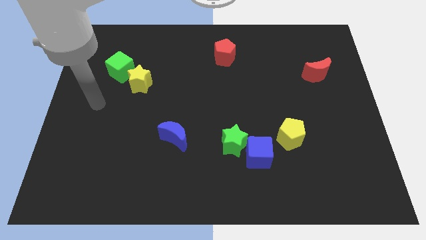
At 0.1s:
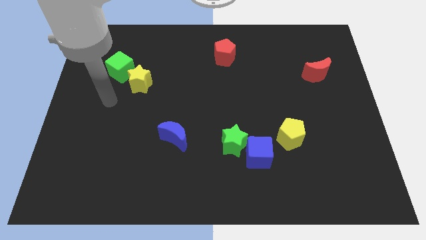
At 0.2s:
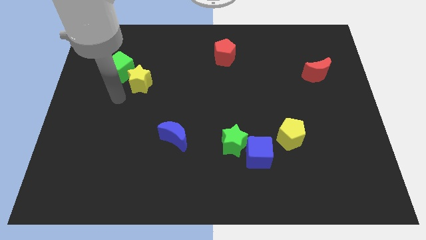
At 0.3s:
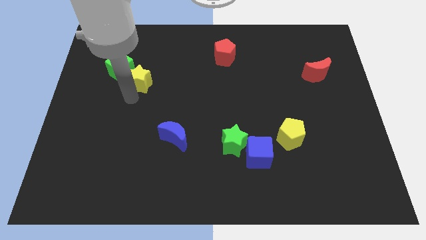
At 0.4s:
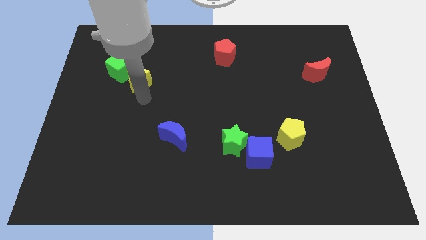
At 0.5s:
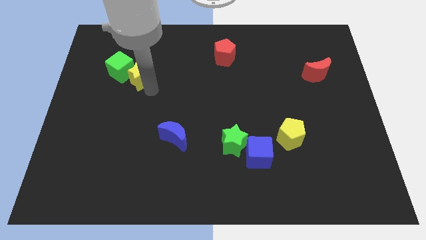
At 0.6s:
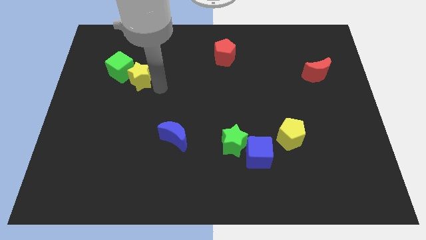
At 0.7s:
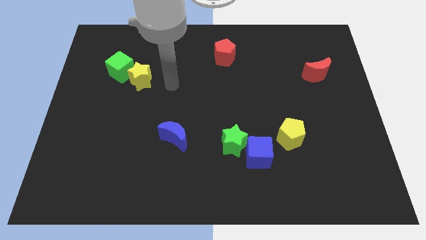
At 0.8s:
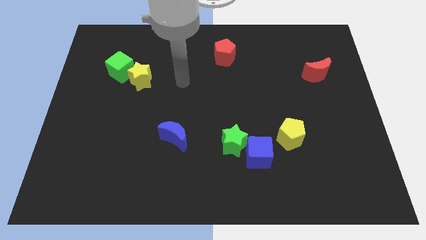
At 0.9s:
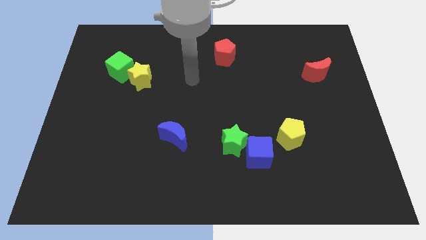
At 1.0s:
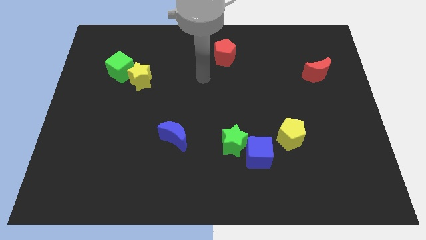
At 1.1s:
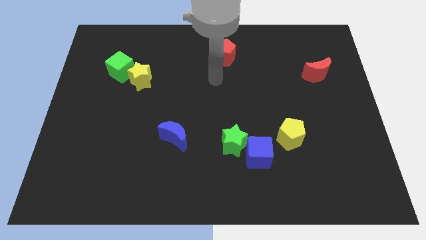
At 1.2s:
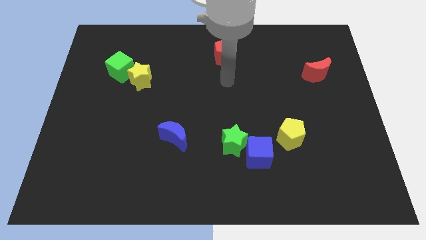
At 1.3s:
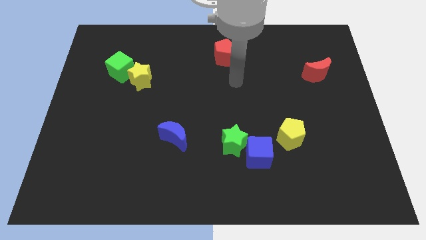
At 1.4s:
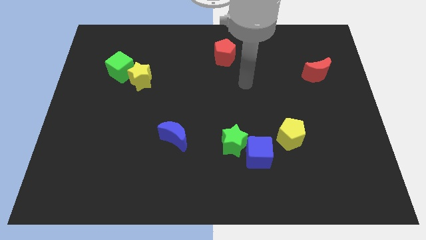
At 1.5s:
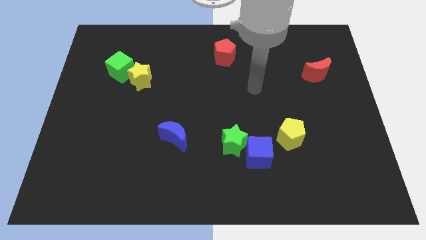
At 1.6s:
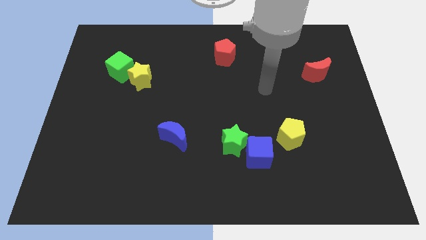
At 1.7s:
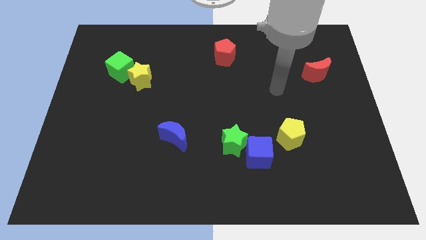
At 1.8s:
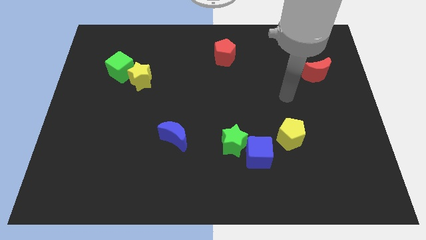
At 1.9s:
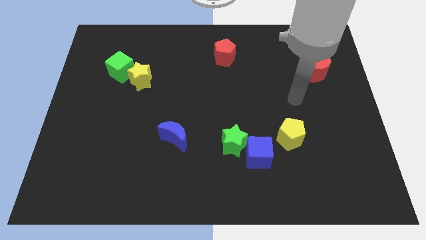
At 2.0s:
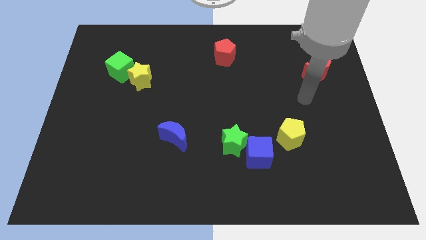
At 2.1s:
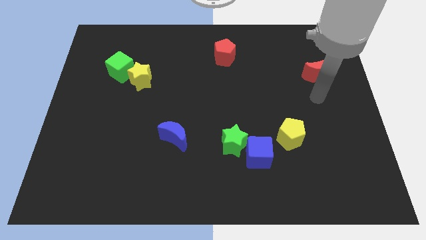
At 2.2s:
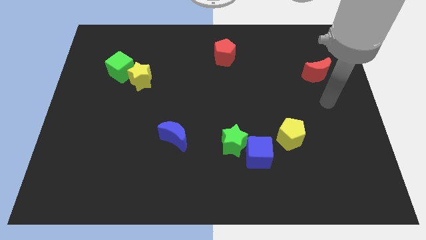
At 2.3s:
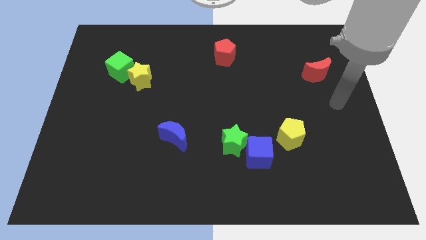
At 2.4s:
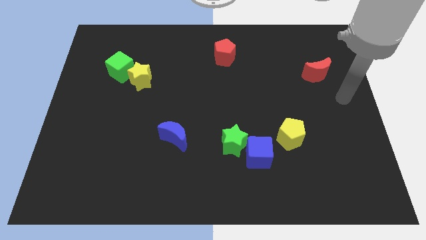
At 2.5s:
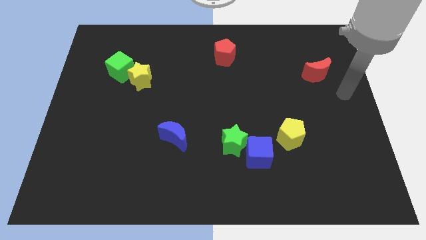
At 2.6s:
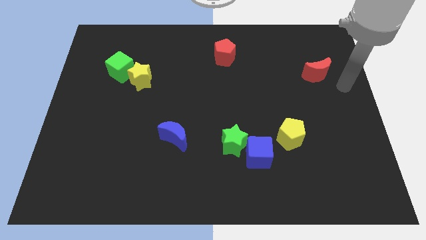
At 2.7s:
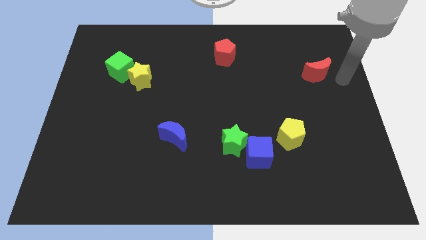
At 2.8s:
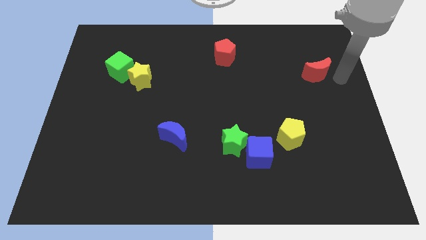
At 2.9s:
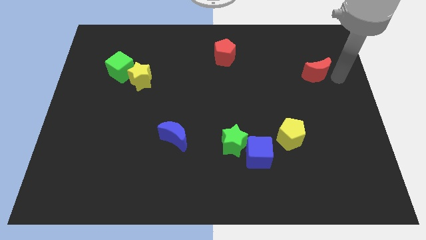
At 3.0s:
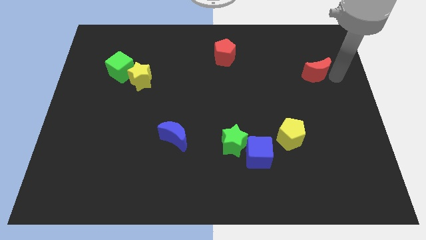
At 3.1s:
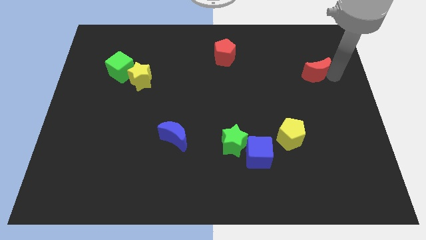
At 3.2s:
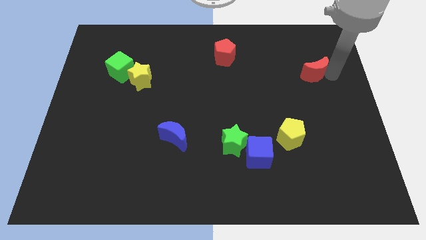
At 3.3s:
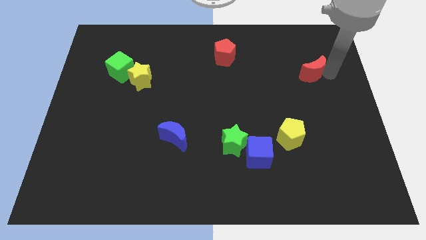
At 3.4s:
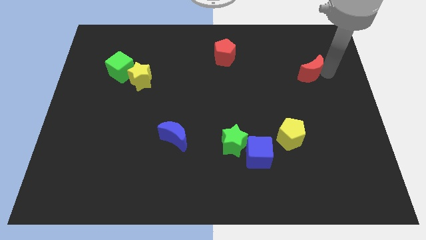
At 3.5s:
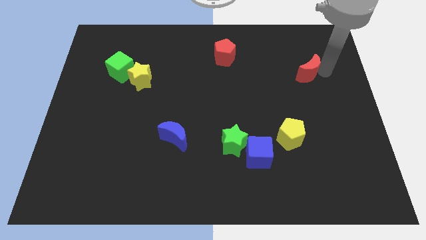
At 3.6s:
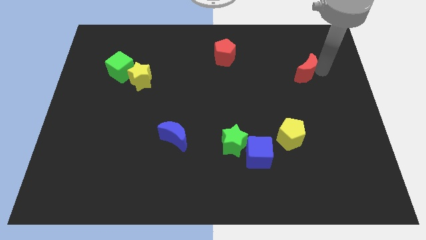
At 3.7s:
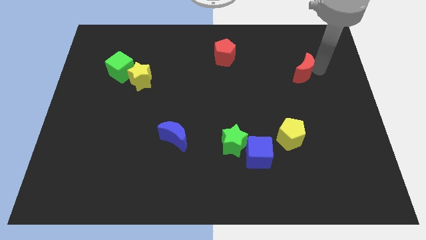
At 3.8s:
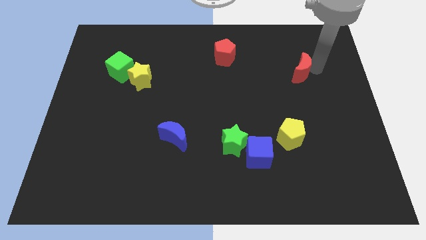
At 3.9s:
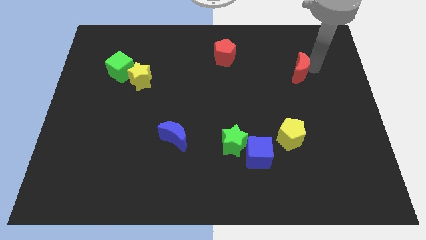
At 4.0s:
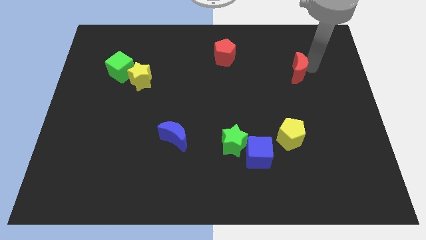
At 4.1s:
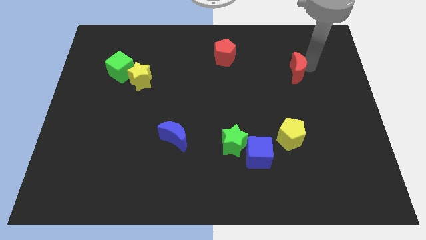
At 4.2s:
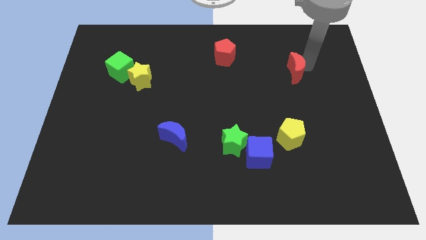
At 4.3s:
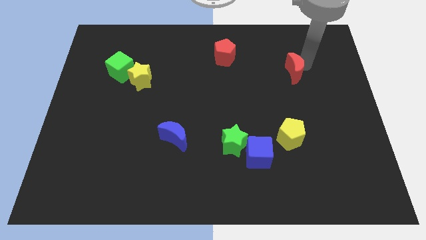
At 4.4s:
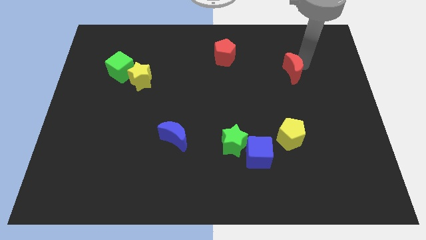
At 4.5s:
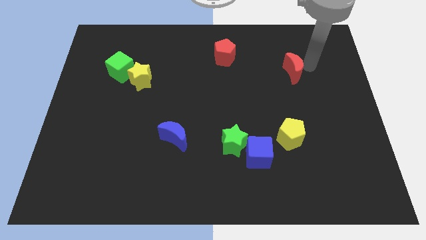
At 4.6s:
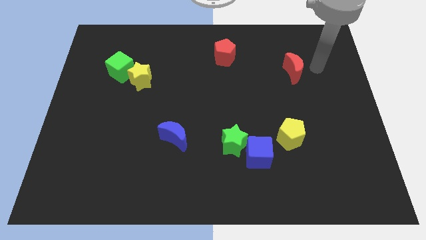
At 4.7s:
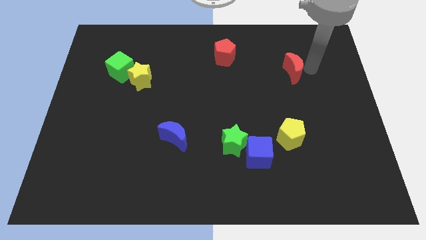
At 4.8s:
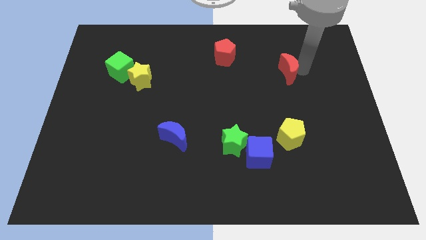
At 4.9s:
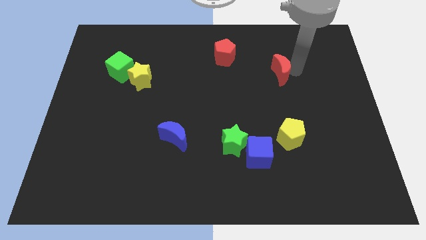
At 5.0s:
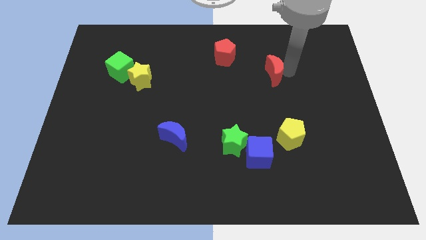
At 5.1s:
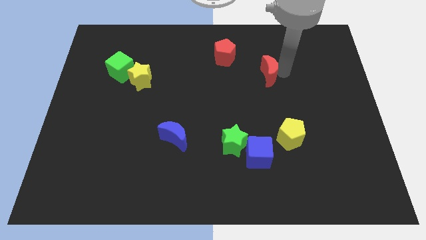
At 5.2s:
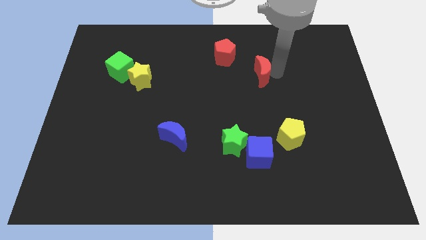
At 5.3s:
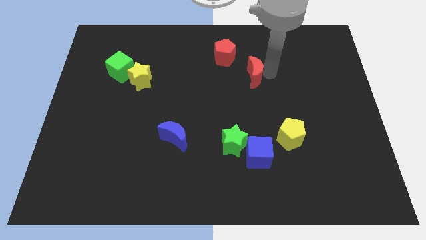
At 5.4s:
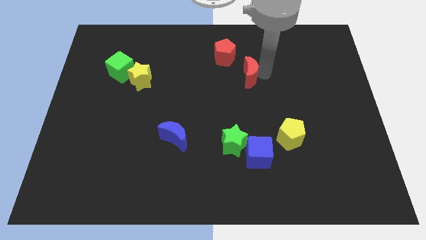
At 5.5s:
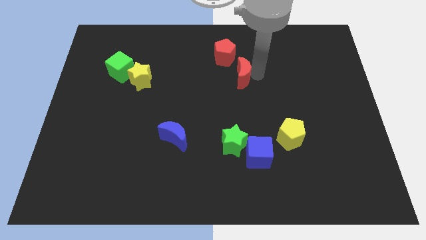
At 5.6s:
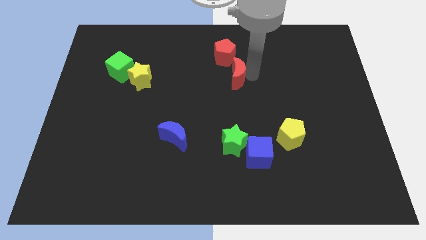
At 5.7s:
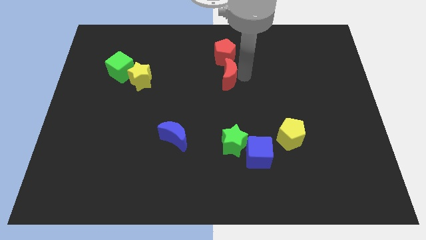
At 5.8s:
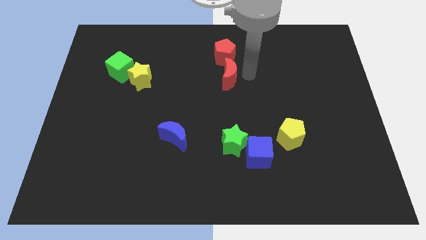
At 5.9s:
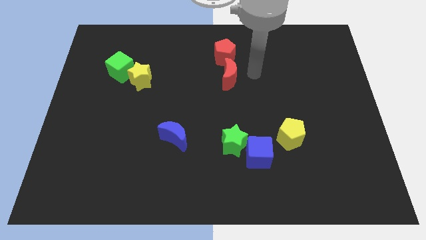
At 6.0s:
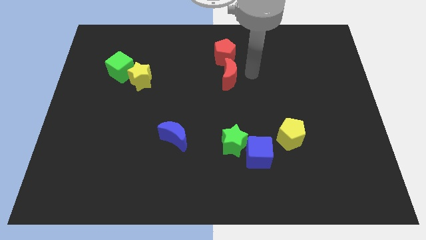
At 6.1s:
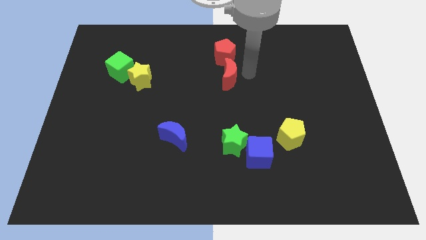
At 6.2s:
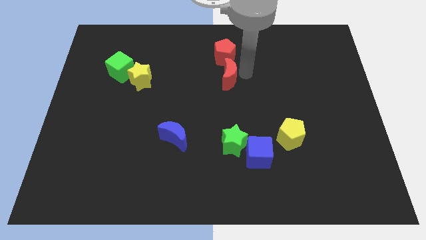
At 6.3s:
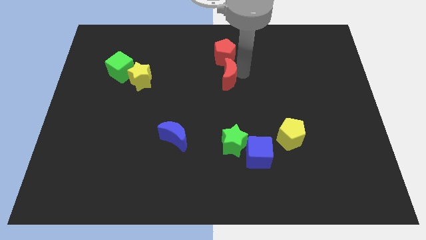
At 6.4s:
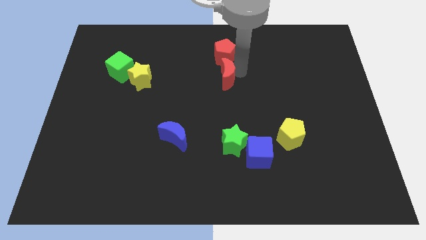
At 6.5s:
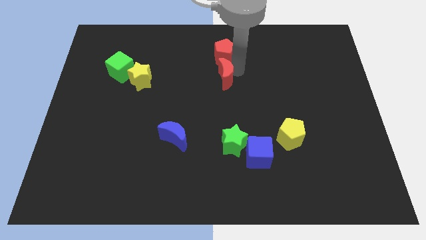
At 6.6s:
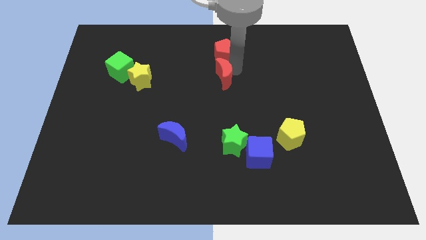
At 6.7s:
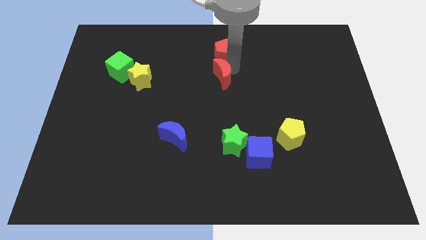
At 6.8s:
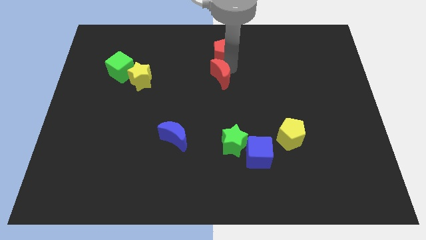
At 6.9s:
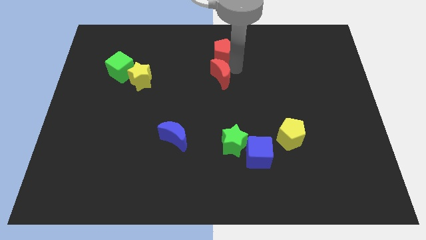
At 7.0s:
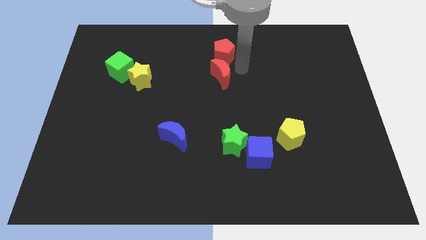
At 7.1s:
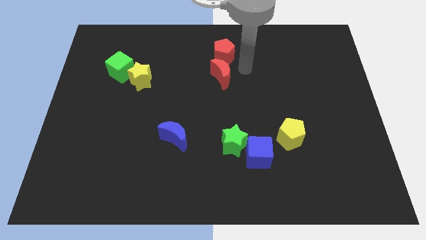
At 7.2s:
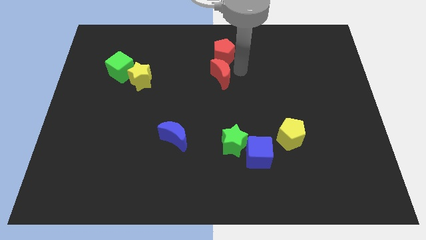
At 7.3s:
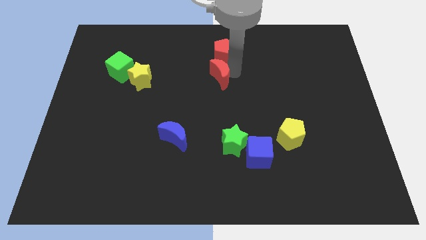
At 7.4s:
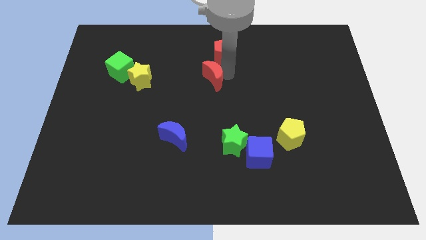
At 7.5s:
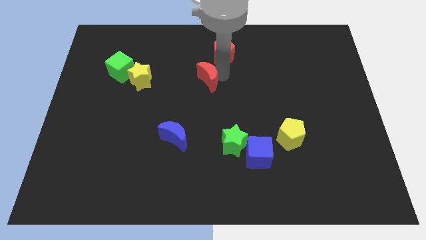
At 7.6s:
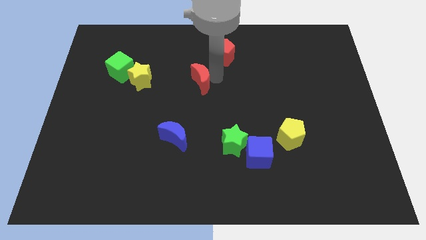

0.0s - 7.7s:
slide the red moon to the right side of the yellow star
